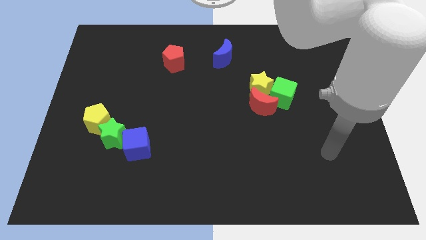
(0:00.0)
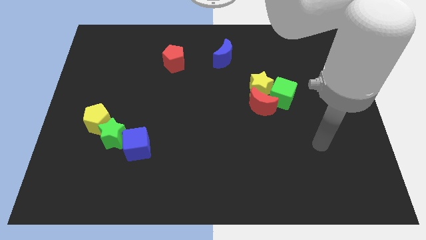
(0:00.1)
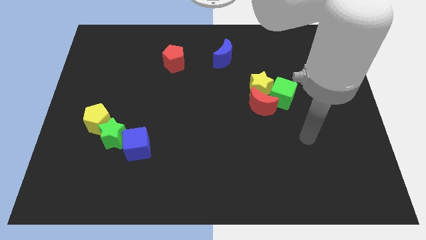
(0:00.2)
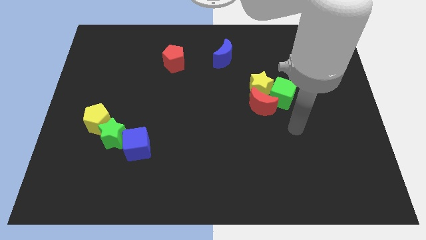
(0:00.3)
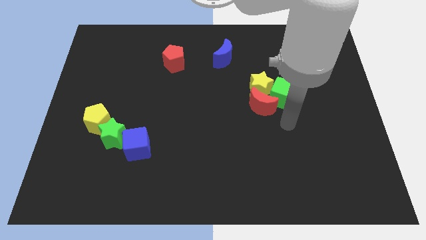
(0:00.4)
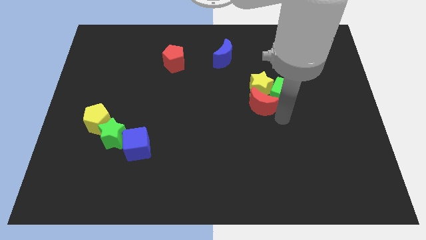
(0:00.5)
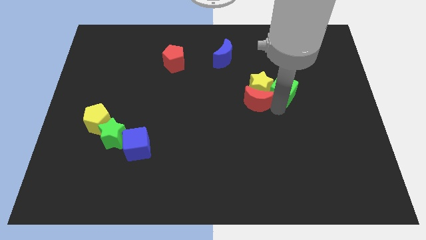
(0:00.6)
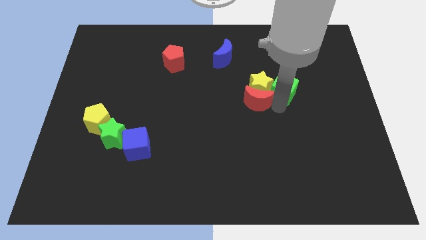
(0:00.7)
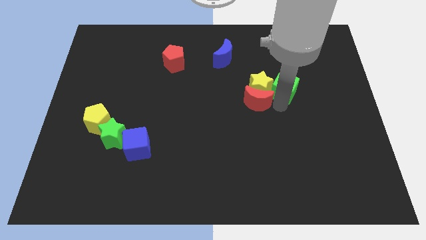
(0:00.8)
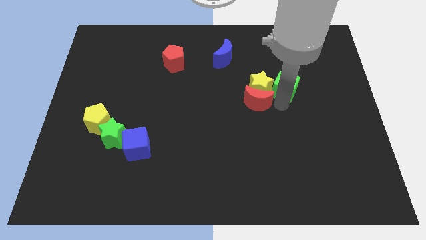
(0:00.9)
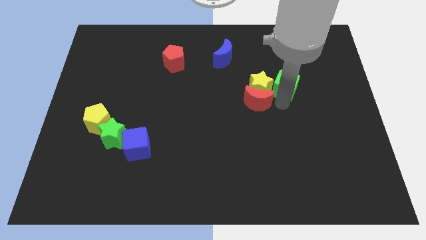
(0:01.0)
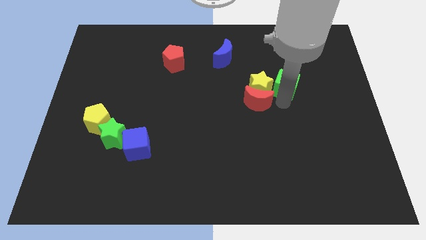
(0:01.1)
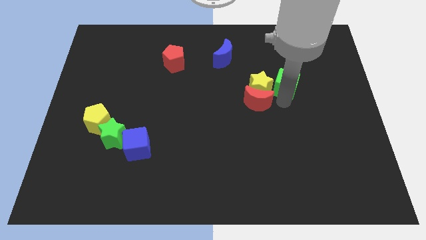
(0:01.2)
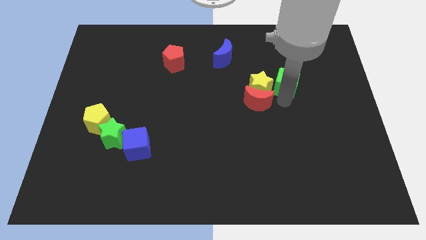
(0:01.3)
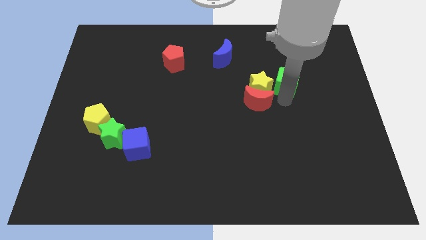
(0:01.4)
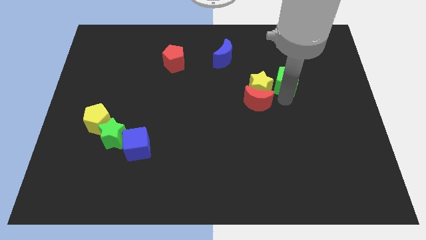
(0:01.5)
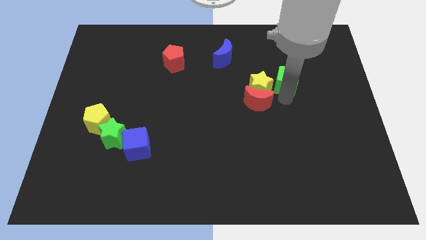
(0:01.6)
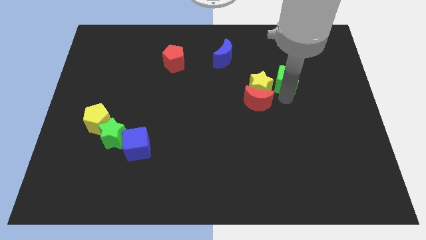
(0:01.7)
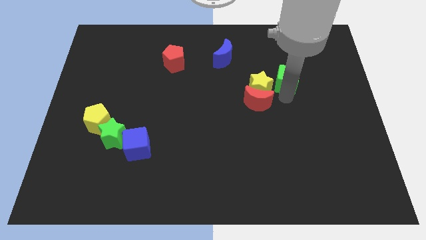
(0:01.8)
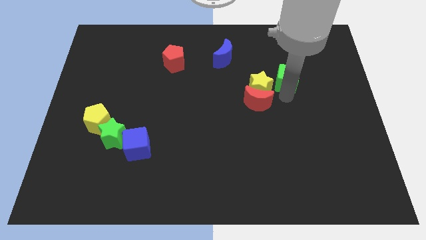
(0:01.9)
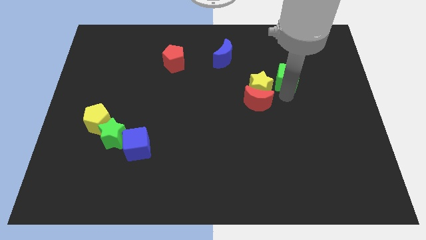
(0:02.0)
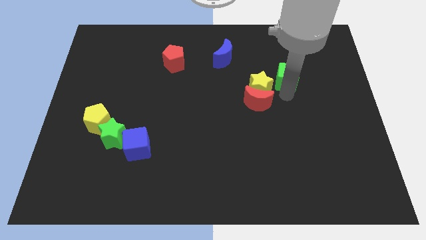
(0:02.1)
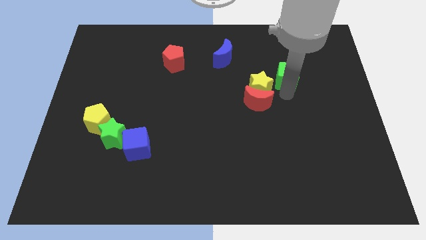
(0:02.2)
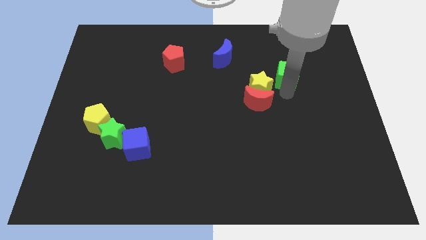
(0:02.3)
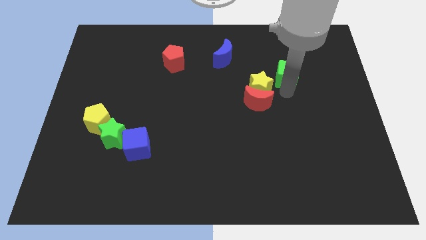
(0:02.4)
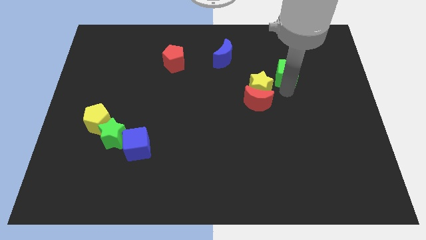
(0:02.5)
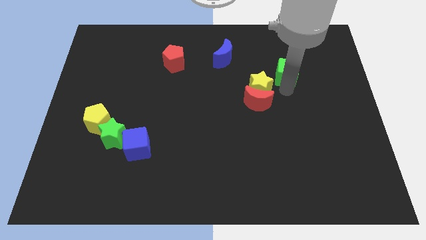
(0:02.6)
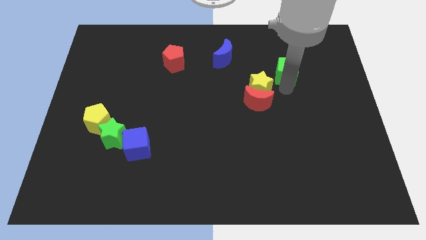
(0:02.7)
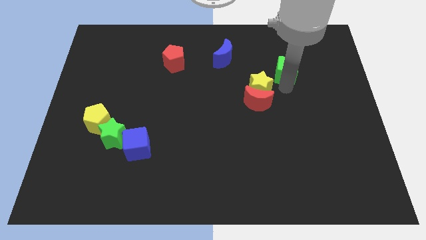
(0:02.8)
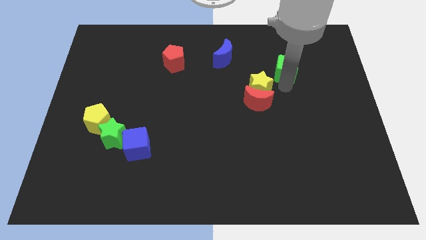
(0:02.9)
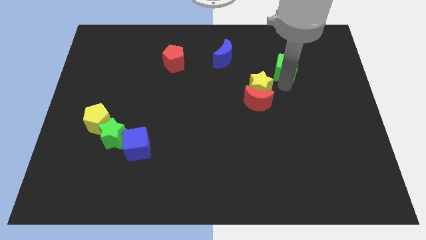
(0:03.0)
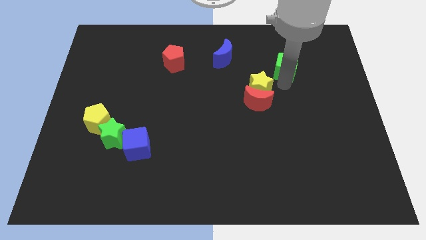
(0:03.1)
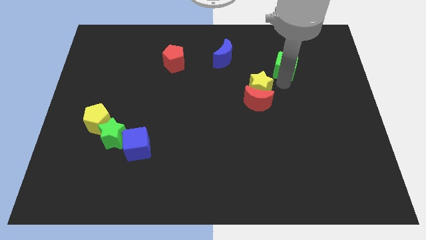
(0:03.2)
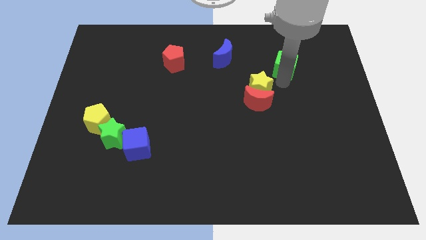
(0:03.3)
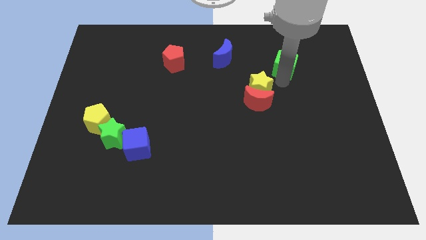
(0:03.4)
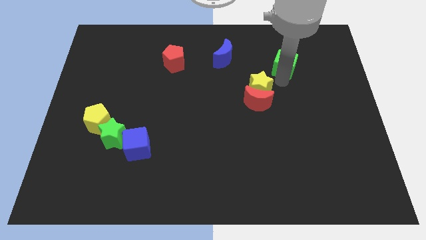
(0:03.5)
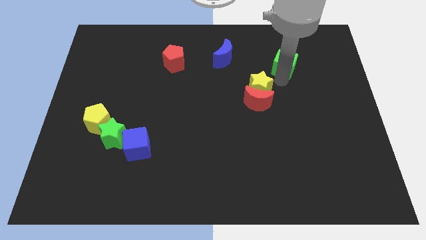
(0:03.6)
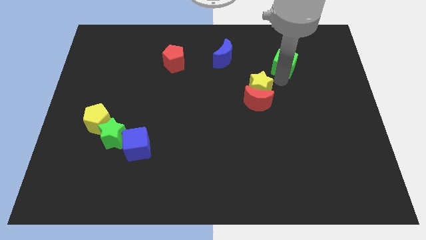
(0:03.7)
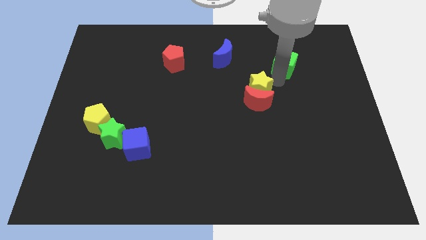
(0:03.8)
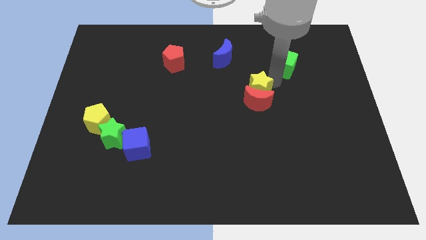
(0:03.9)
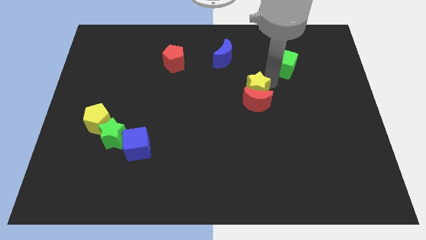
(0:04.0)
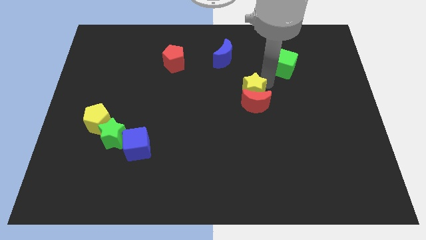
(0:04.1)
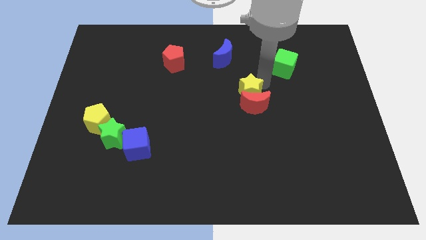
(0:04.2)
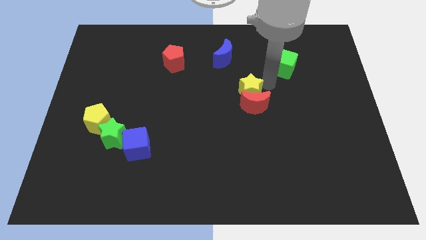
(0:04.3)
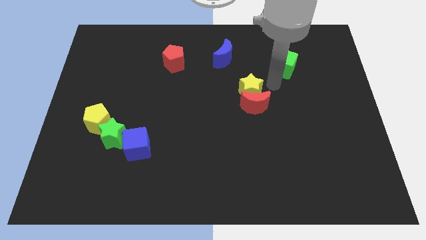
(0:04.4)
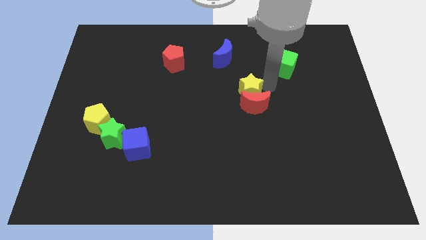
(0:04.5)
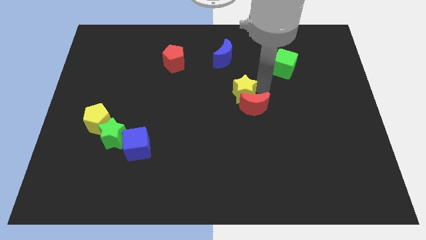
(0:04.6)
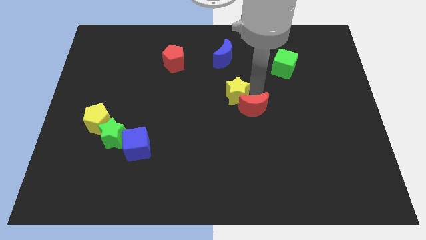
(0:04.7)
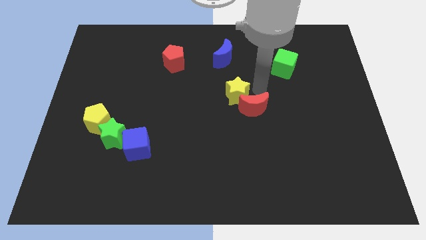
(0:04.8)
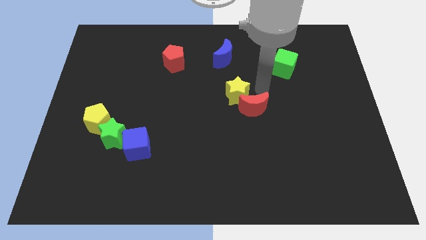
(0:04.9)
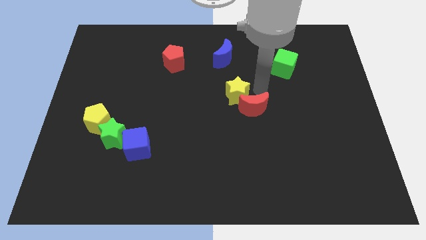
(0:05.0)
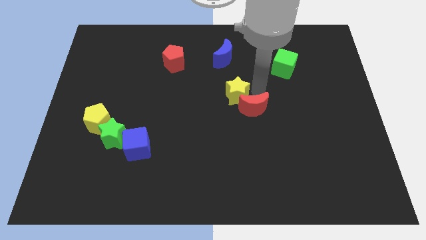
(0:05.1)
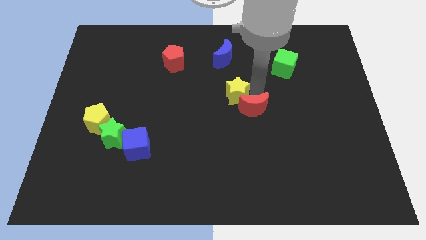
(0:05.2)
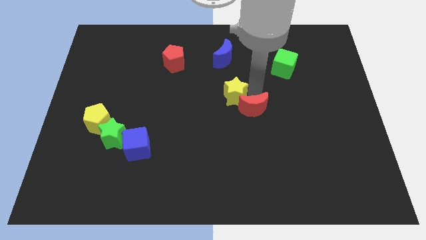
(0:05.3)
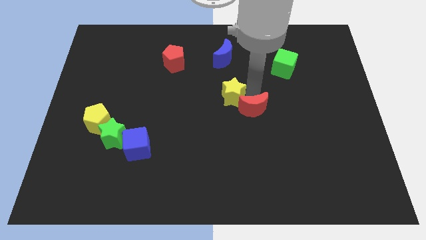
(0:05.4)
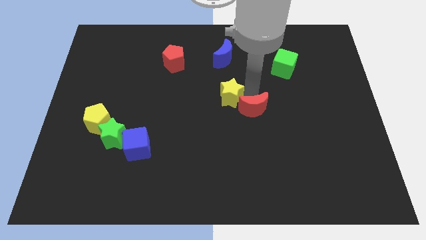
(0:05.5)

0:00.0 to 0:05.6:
move the yellow star away from the red moon and green cube

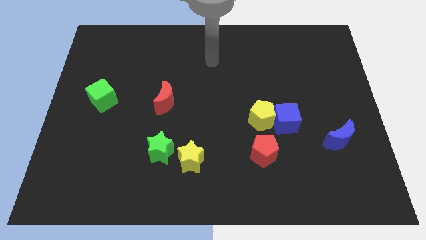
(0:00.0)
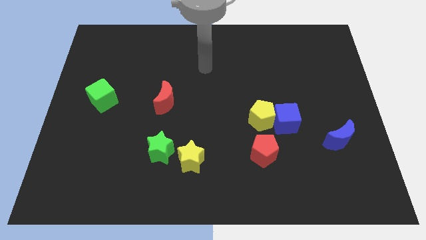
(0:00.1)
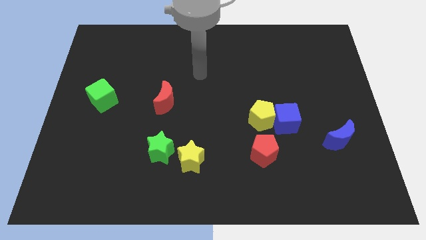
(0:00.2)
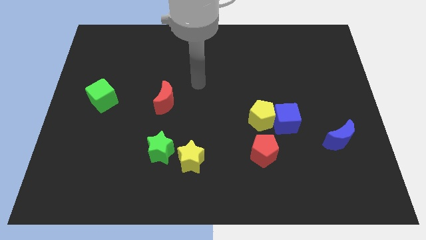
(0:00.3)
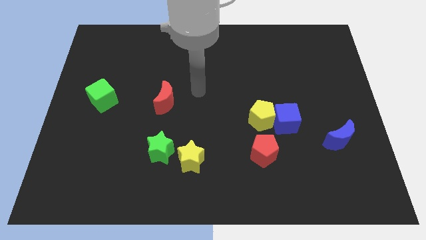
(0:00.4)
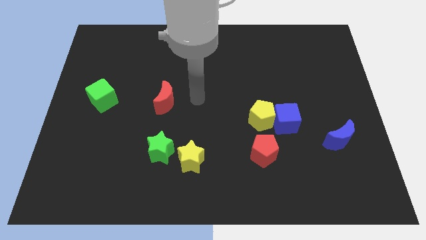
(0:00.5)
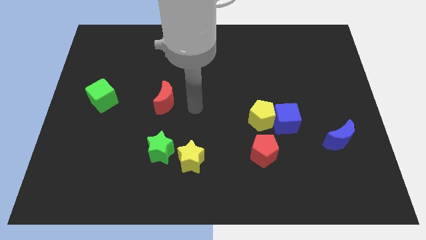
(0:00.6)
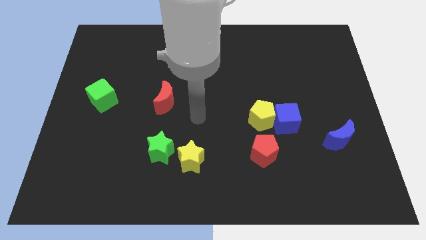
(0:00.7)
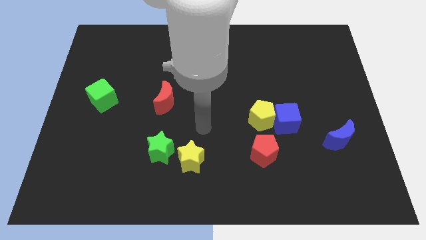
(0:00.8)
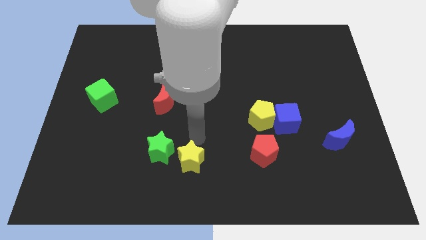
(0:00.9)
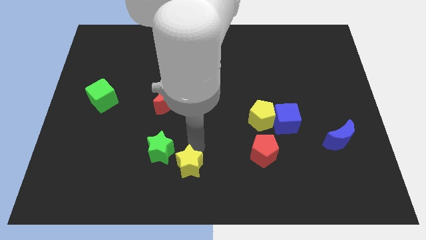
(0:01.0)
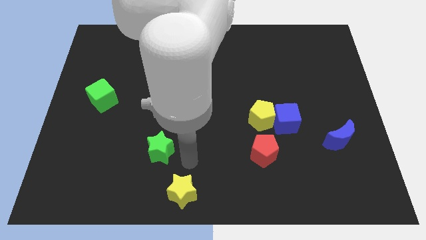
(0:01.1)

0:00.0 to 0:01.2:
move the green star away from the yellow star

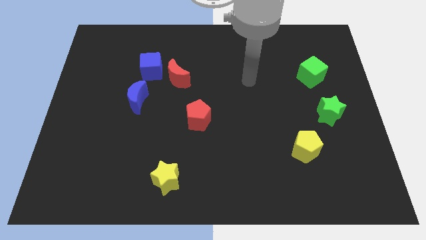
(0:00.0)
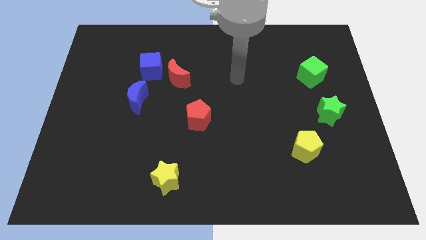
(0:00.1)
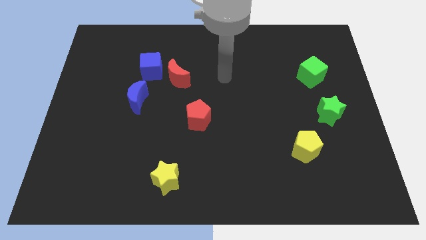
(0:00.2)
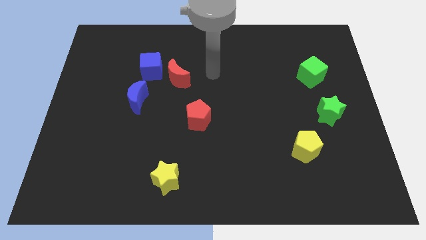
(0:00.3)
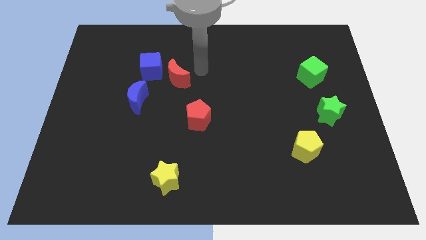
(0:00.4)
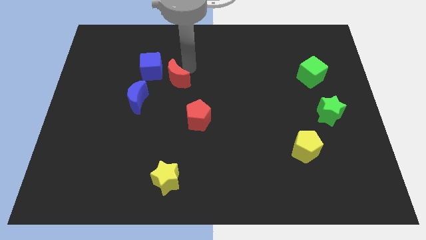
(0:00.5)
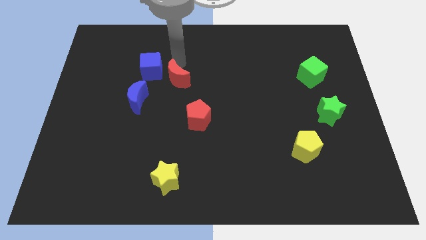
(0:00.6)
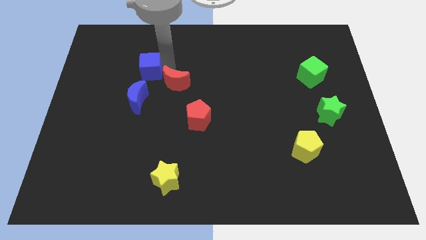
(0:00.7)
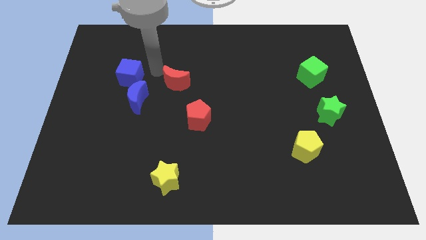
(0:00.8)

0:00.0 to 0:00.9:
move the red moon away from the blue cube

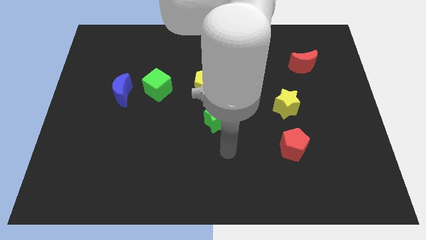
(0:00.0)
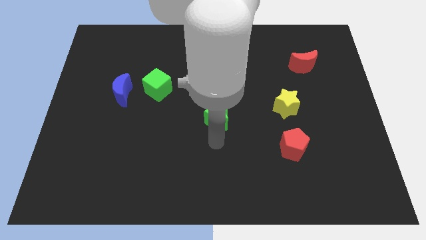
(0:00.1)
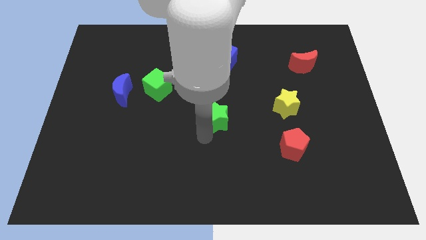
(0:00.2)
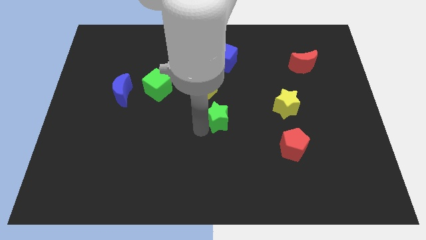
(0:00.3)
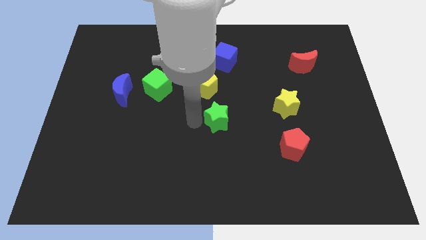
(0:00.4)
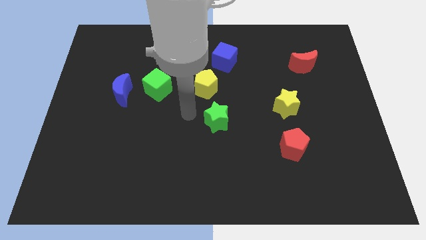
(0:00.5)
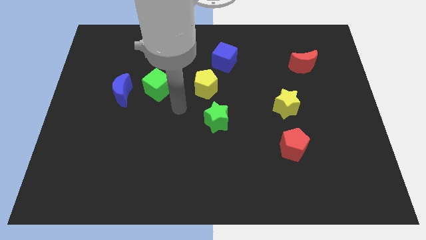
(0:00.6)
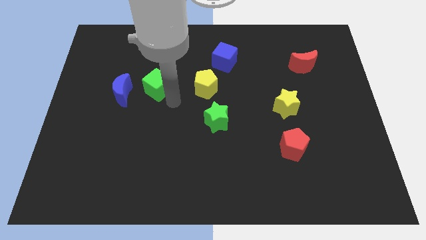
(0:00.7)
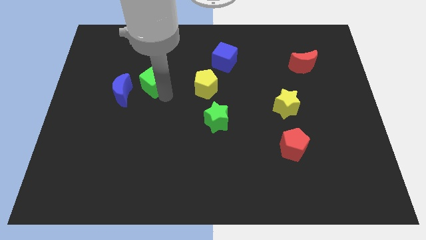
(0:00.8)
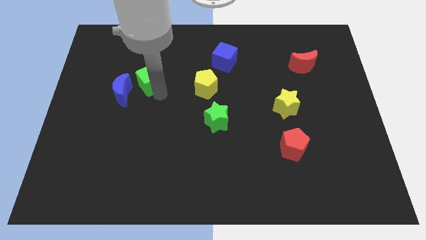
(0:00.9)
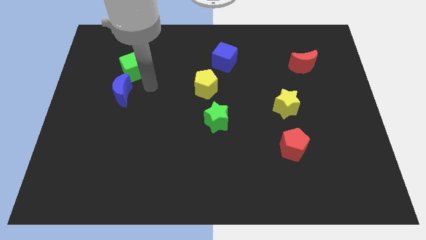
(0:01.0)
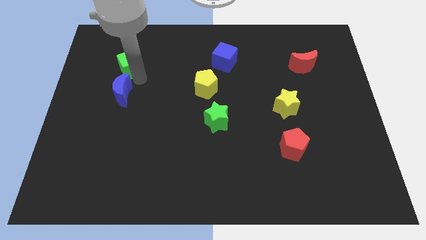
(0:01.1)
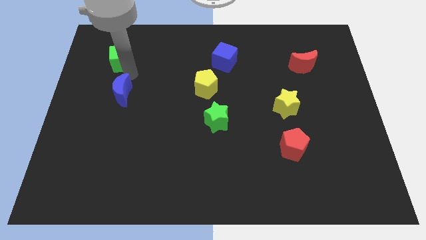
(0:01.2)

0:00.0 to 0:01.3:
move the blue moon away from the green cube

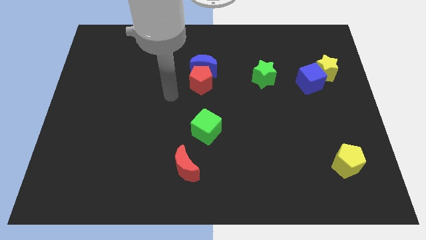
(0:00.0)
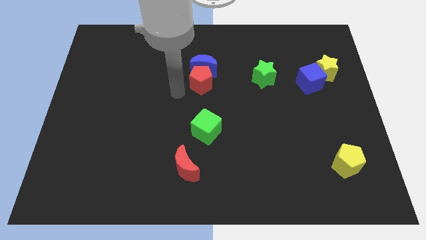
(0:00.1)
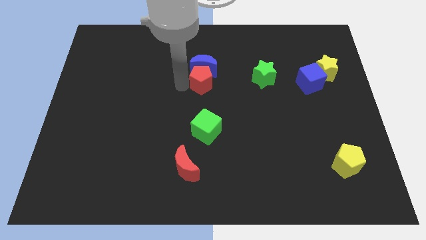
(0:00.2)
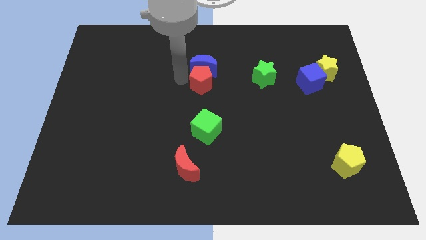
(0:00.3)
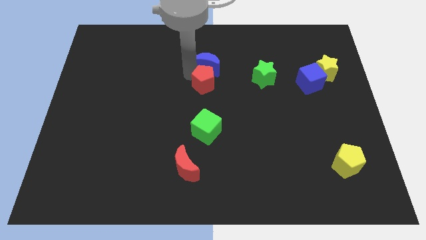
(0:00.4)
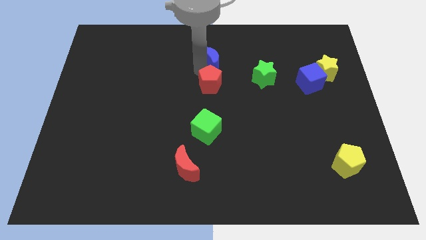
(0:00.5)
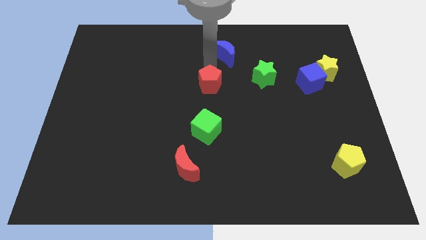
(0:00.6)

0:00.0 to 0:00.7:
separate the red pentagon from the blue moon
